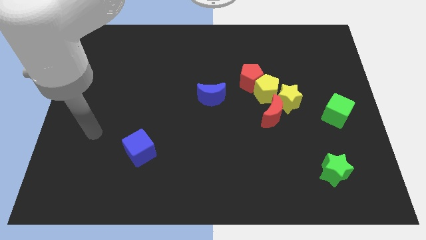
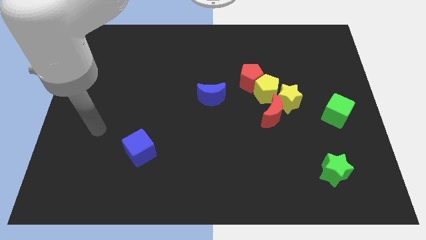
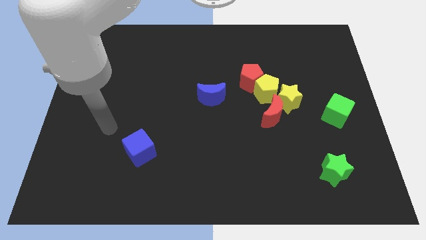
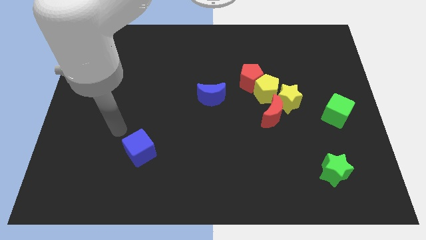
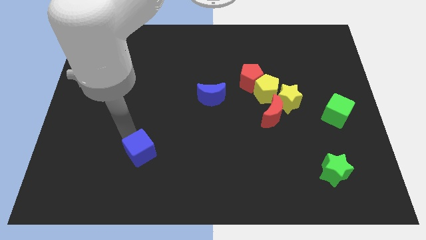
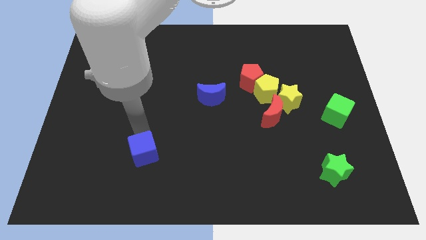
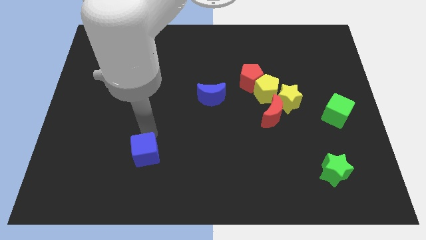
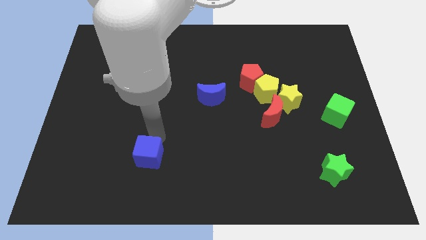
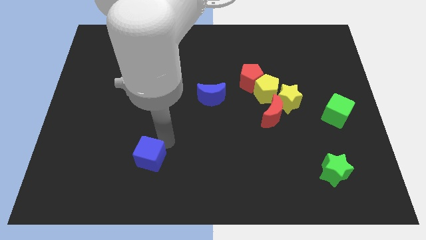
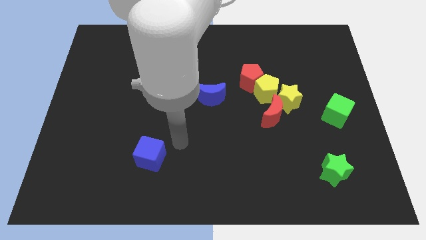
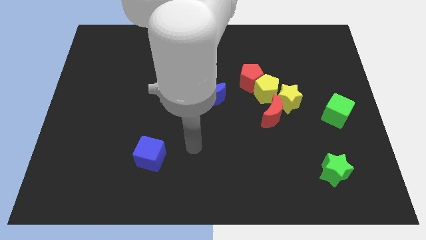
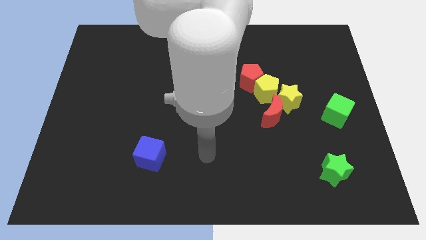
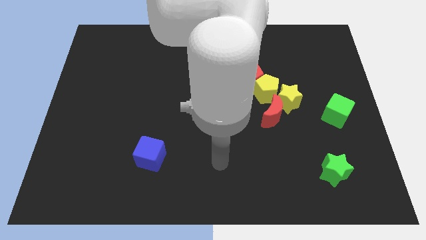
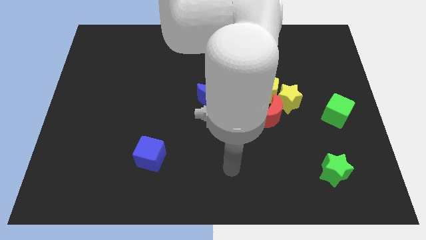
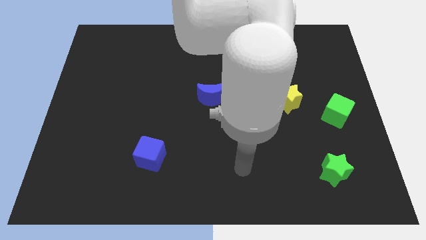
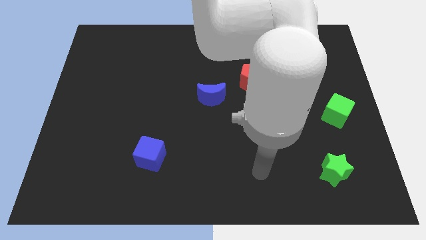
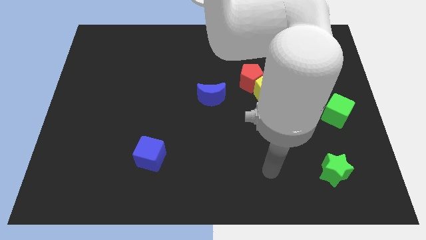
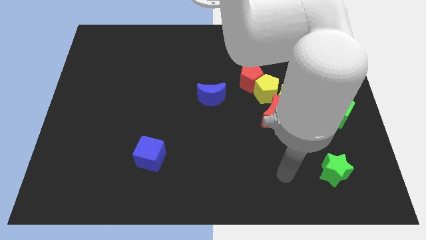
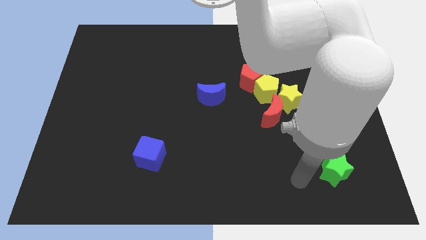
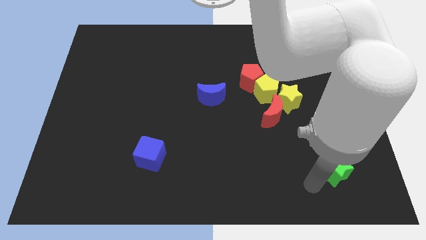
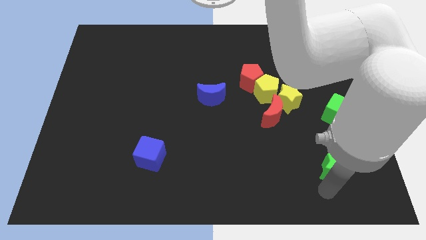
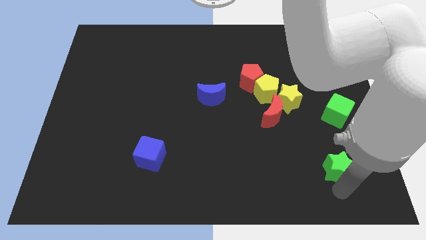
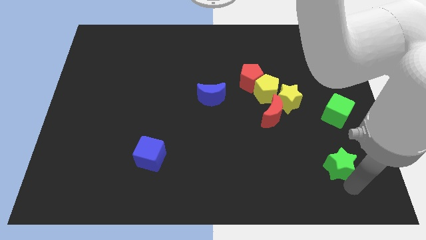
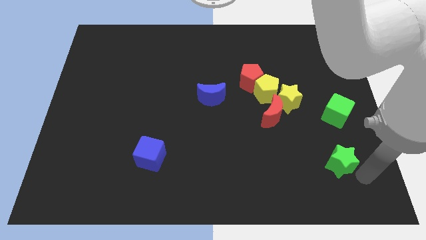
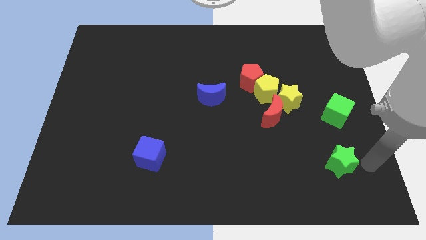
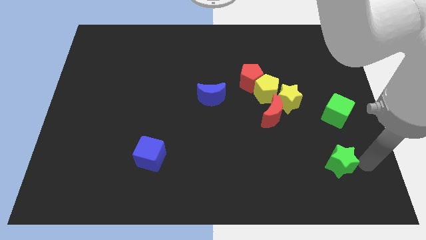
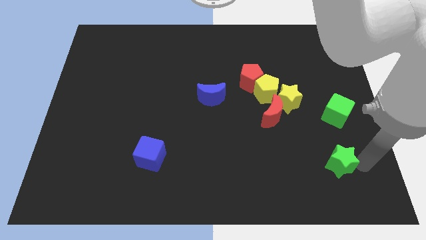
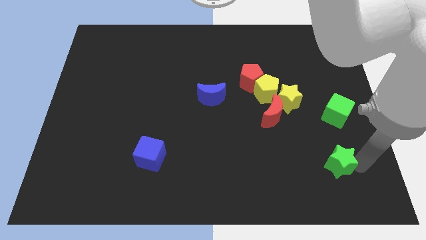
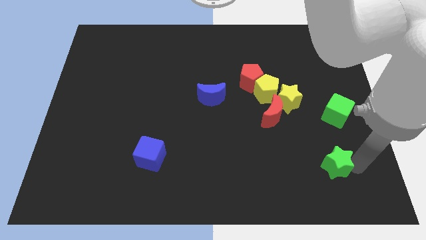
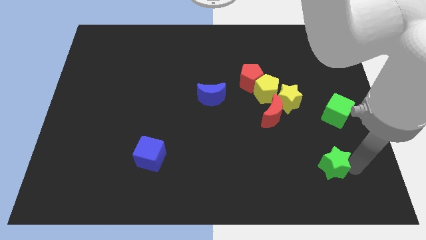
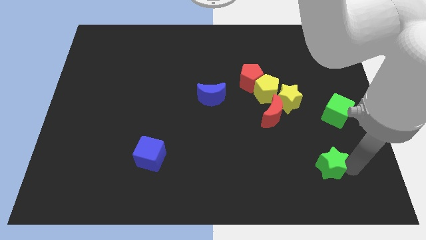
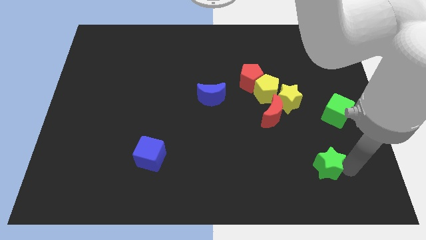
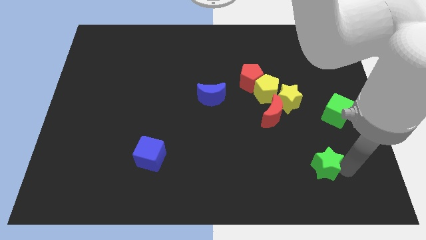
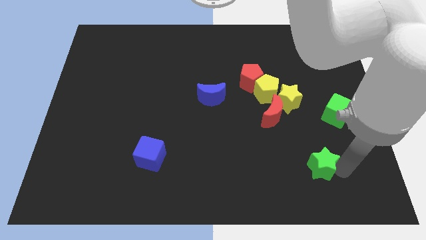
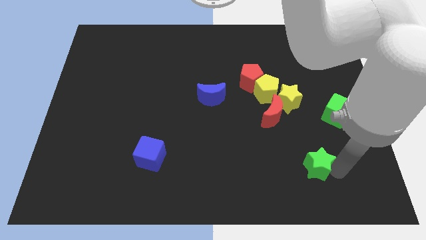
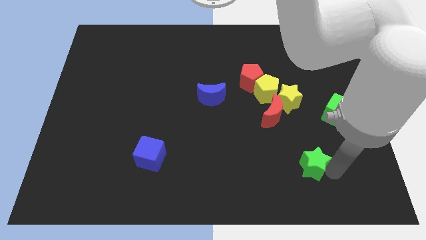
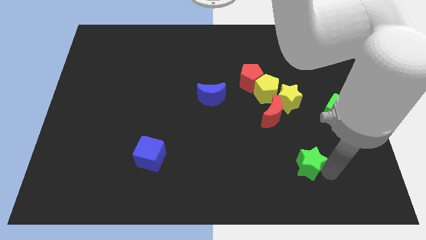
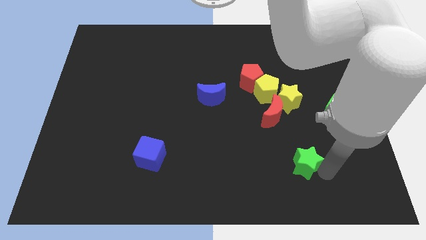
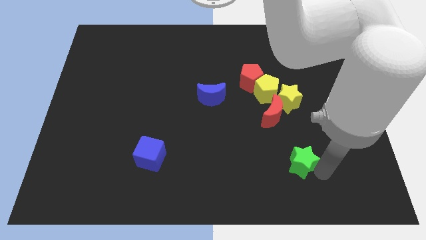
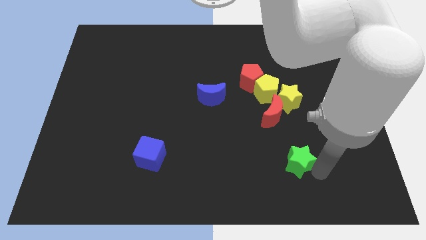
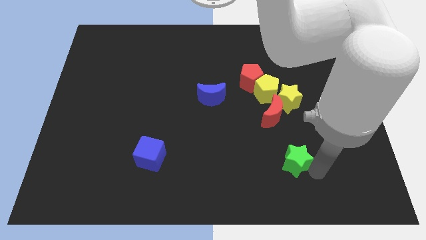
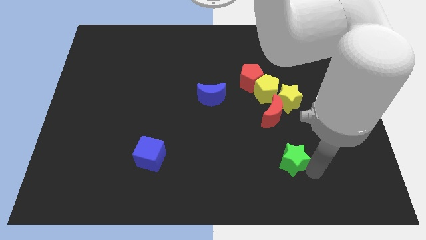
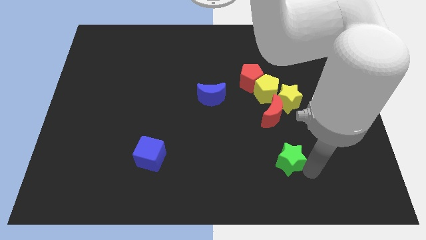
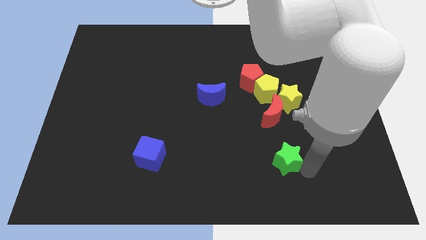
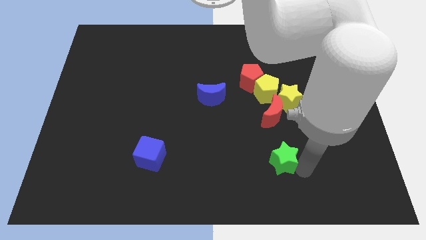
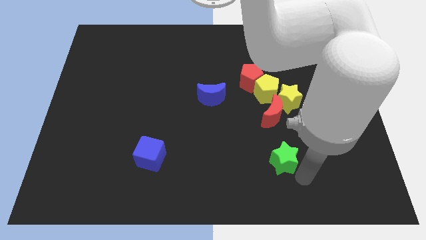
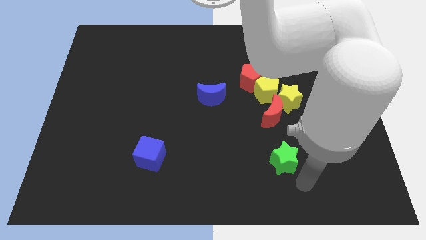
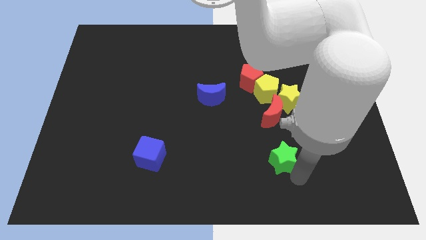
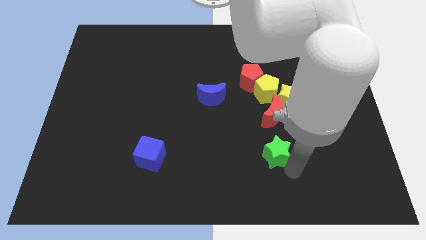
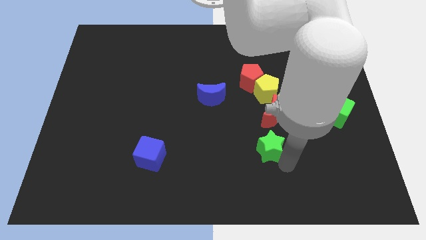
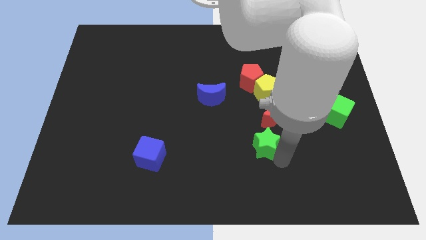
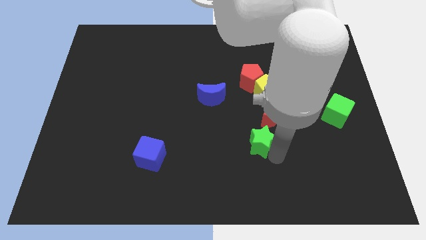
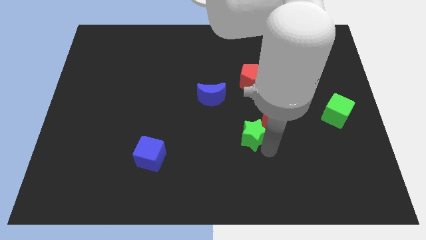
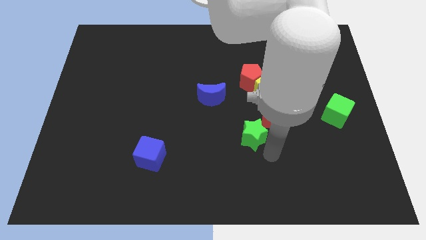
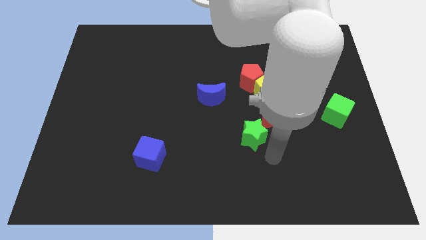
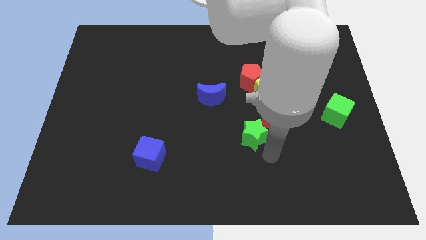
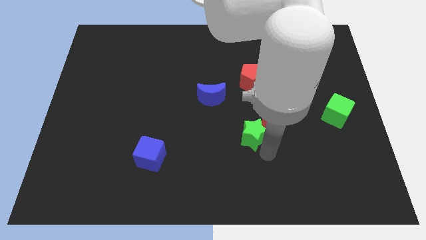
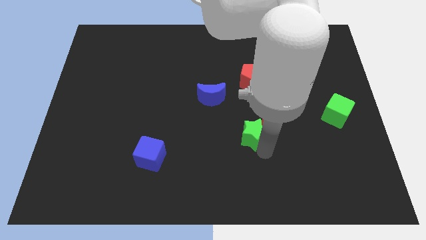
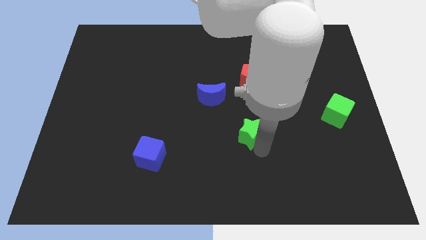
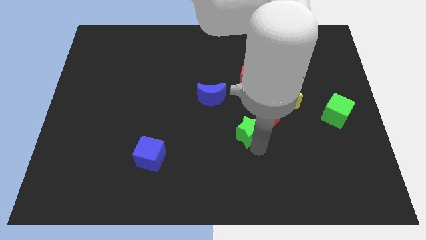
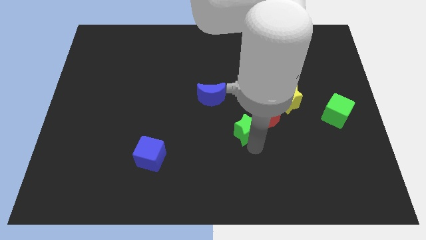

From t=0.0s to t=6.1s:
slide the green star to the bottom right side of the blue moon

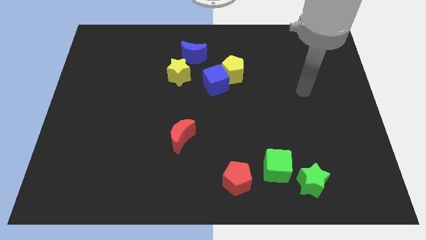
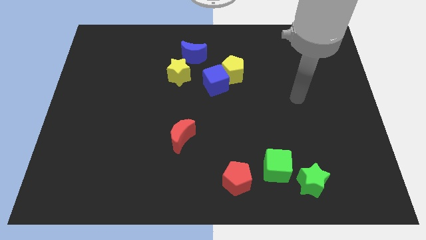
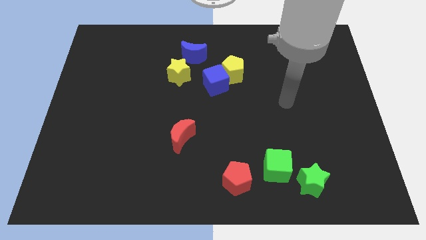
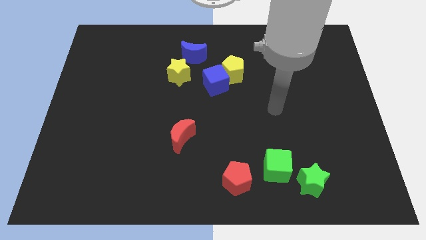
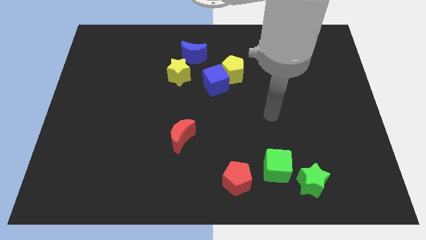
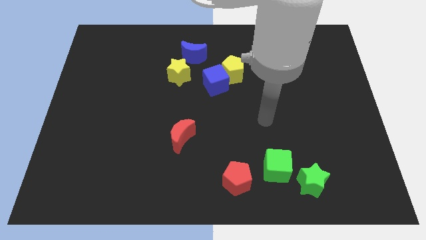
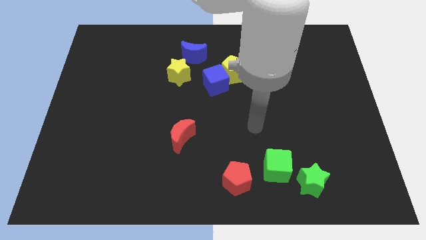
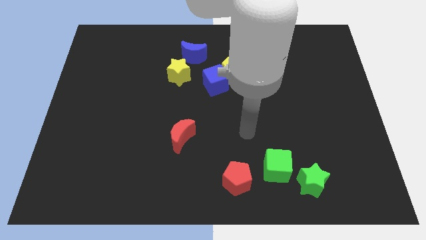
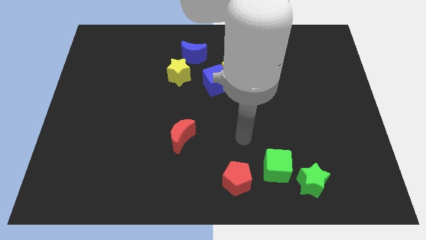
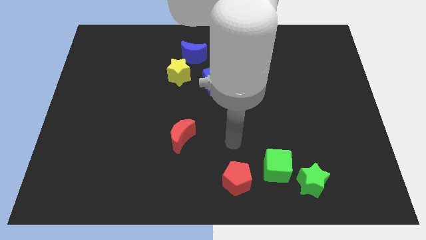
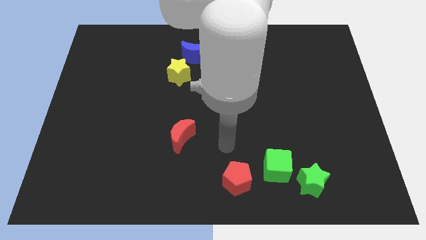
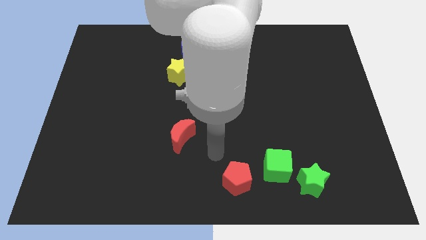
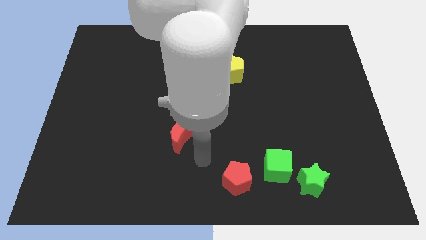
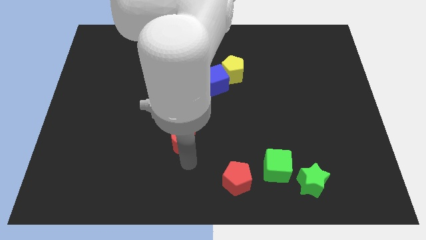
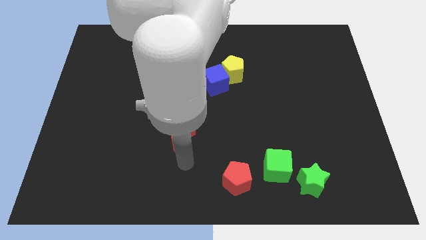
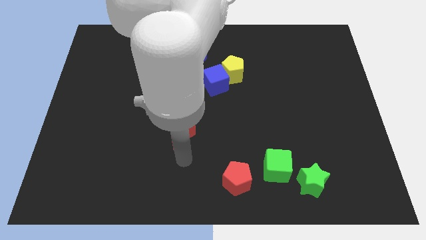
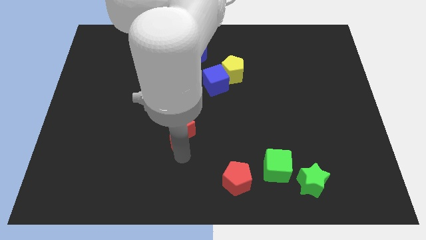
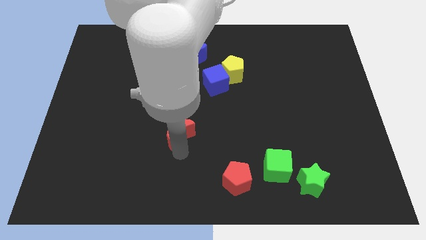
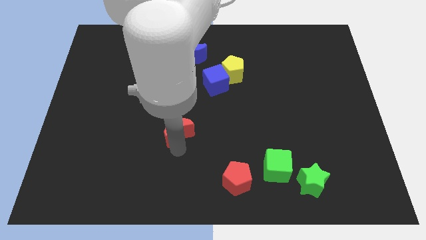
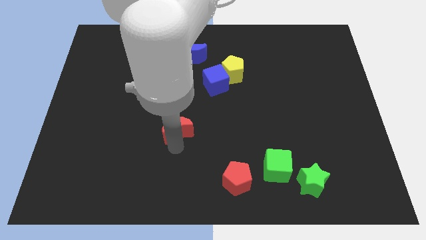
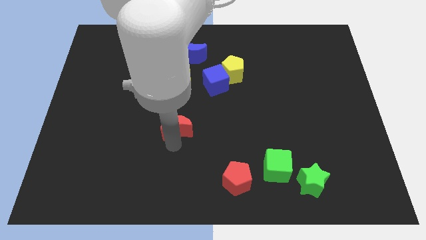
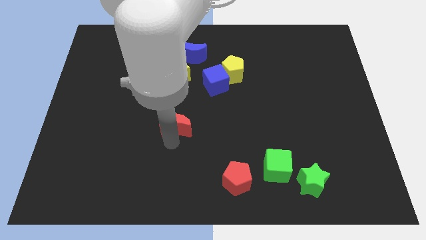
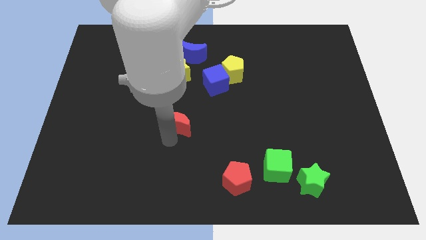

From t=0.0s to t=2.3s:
slide the red moon to the bottom of the yellow star
